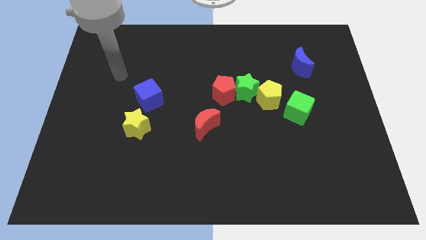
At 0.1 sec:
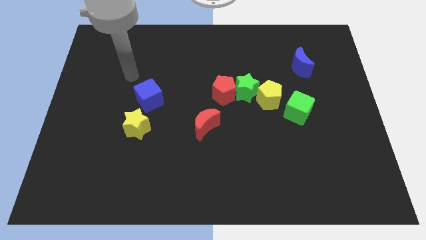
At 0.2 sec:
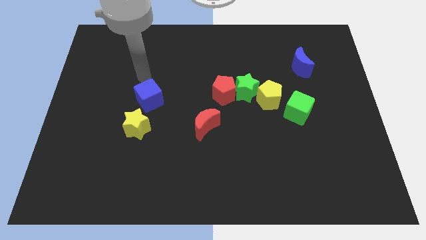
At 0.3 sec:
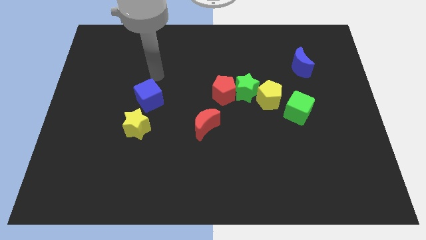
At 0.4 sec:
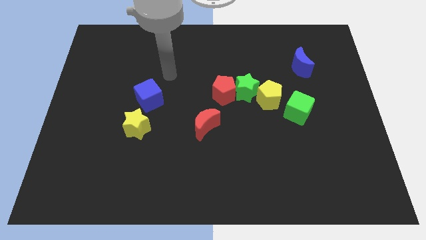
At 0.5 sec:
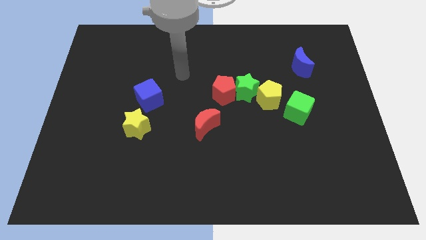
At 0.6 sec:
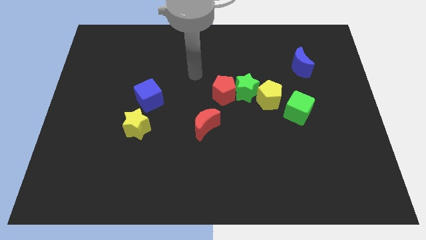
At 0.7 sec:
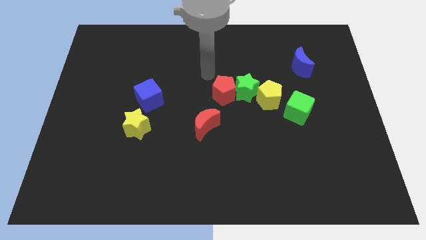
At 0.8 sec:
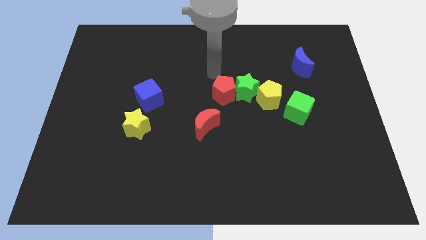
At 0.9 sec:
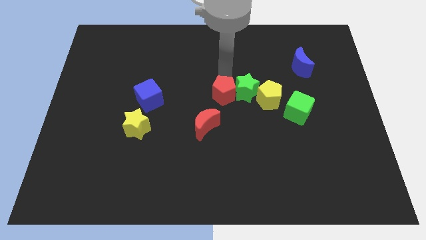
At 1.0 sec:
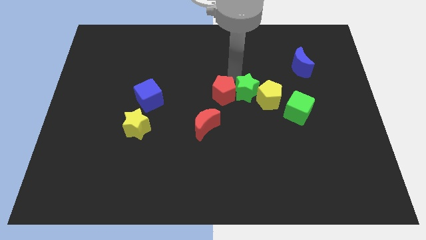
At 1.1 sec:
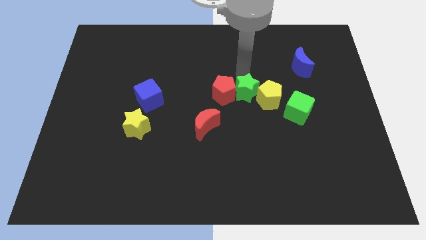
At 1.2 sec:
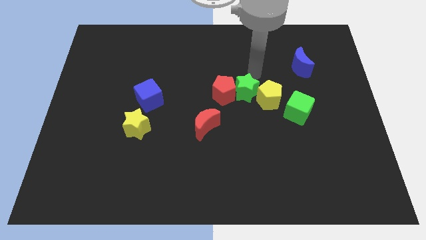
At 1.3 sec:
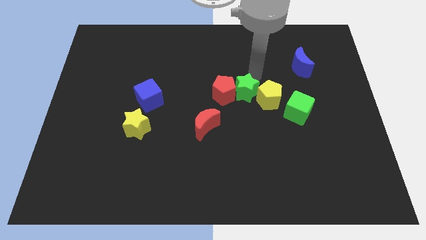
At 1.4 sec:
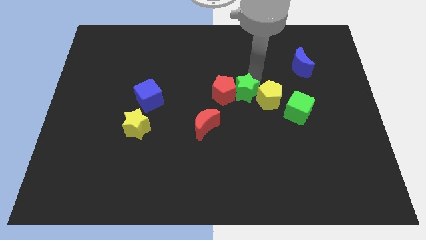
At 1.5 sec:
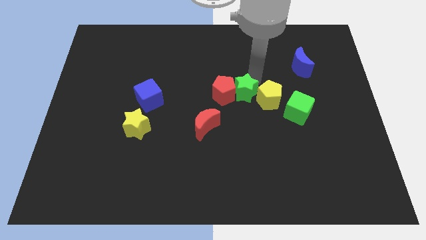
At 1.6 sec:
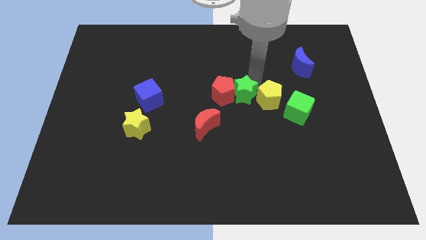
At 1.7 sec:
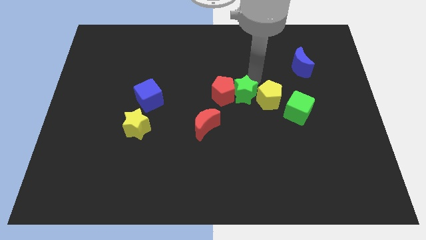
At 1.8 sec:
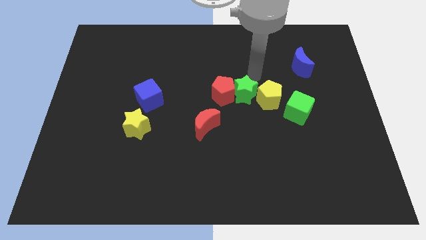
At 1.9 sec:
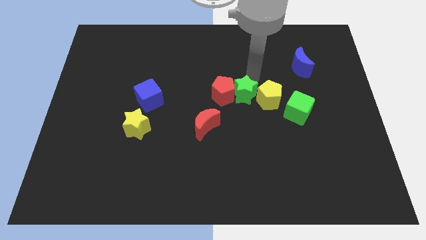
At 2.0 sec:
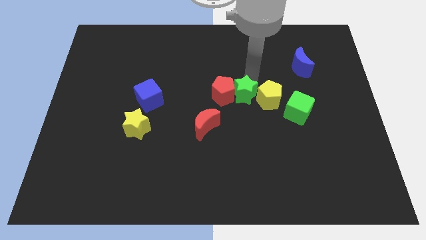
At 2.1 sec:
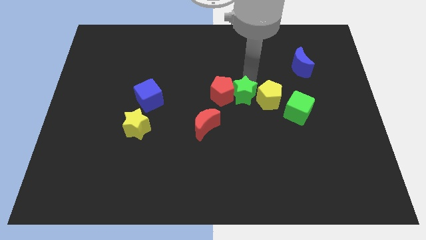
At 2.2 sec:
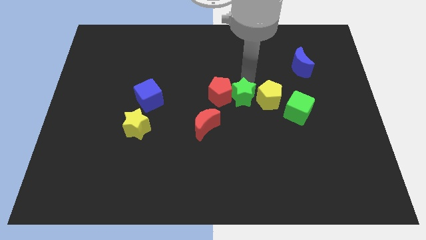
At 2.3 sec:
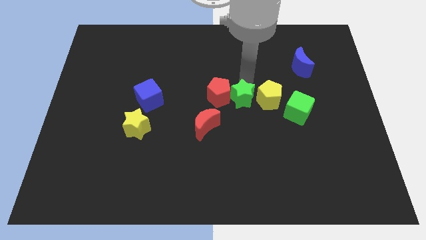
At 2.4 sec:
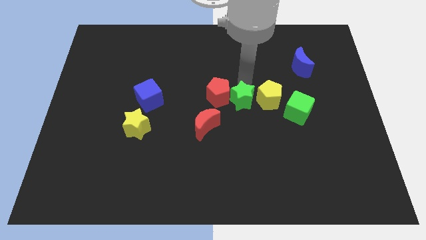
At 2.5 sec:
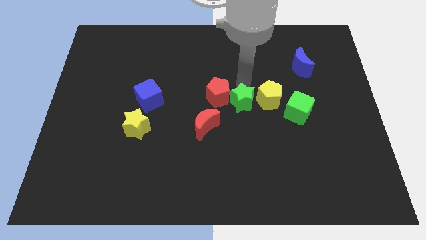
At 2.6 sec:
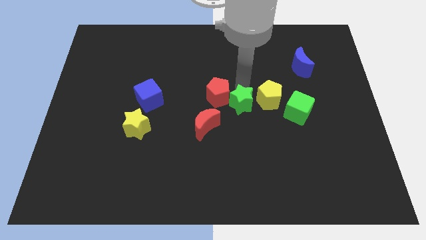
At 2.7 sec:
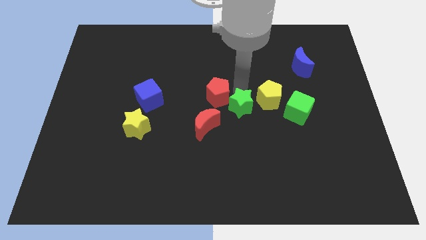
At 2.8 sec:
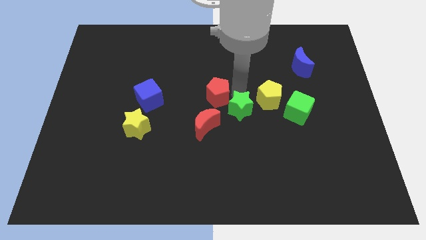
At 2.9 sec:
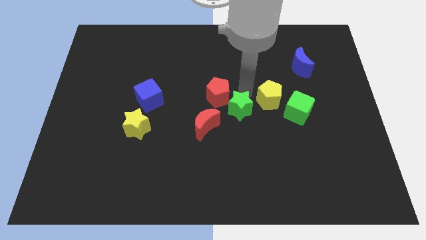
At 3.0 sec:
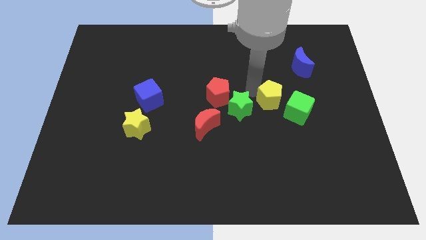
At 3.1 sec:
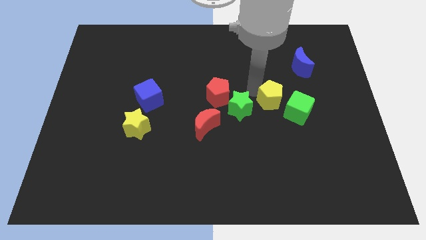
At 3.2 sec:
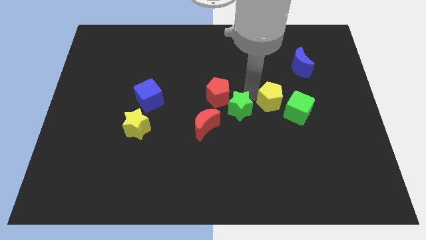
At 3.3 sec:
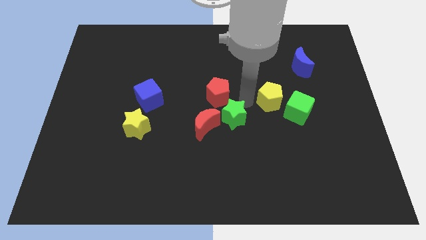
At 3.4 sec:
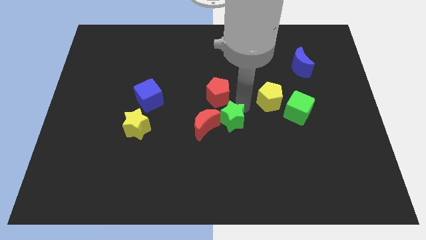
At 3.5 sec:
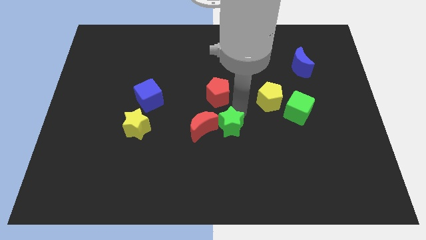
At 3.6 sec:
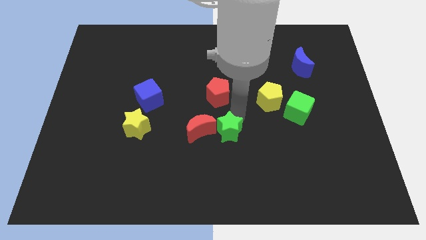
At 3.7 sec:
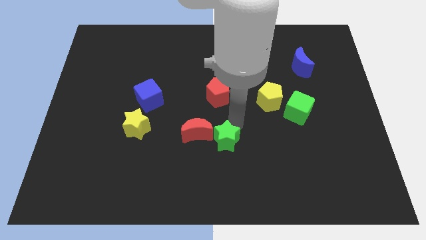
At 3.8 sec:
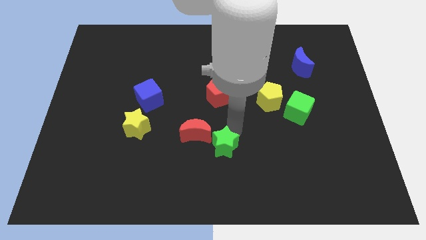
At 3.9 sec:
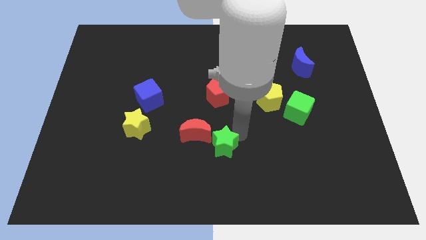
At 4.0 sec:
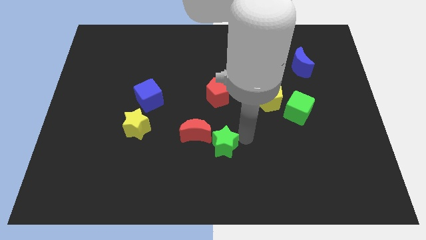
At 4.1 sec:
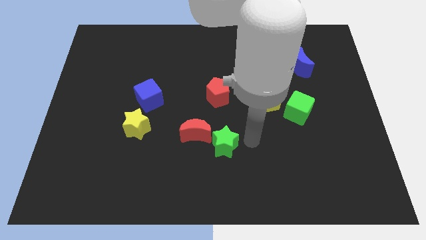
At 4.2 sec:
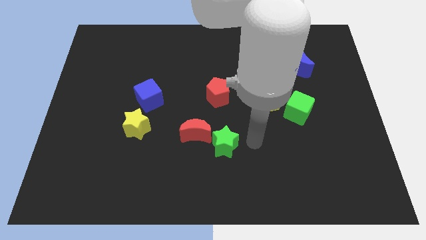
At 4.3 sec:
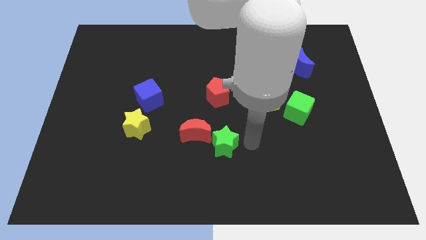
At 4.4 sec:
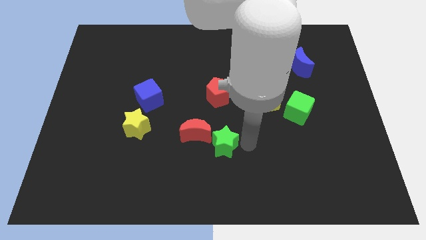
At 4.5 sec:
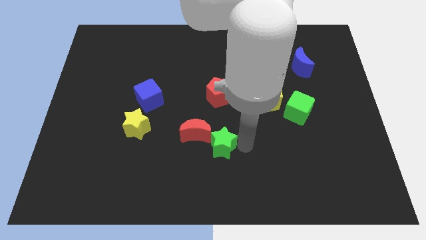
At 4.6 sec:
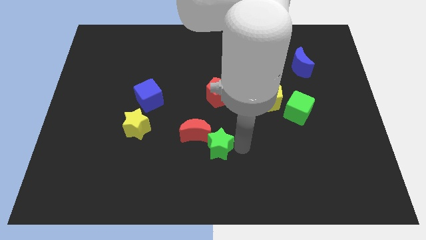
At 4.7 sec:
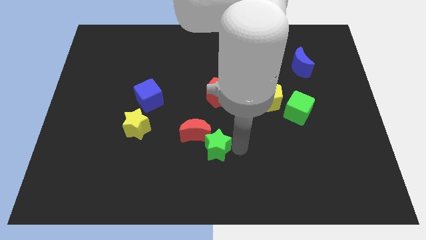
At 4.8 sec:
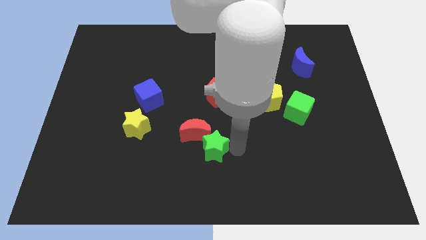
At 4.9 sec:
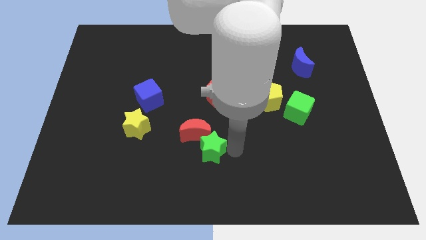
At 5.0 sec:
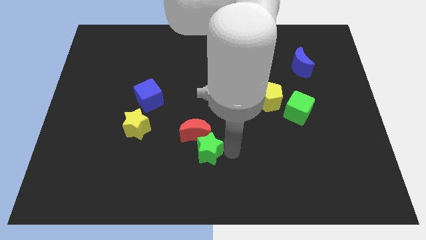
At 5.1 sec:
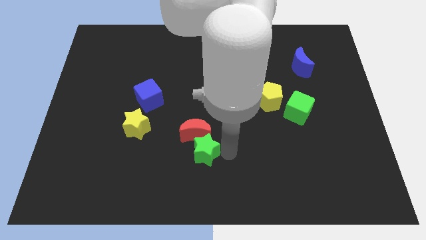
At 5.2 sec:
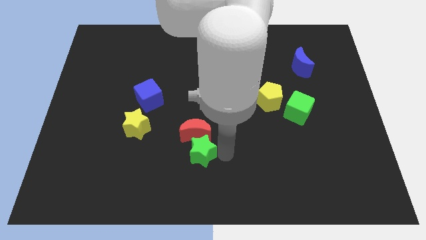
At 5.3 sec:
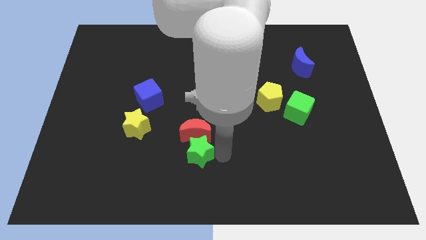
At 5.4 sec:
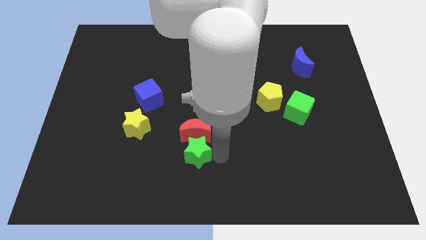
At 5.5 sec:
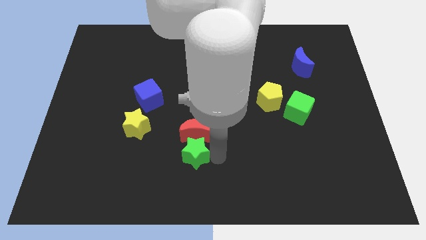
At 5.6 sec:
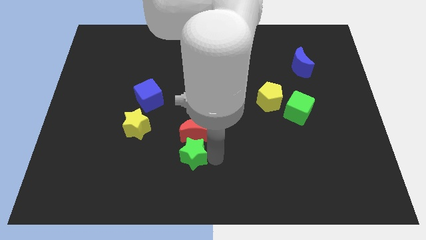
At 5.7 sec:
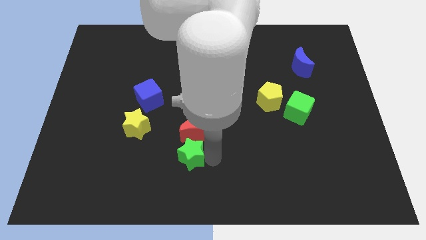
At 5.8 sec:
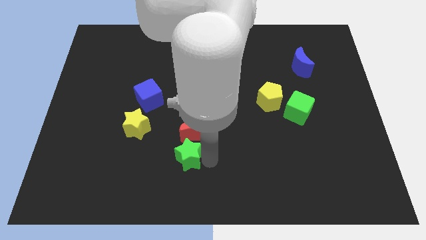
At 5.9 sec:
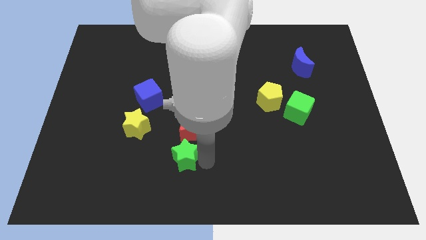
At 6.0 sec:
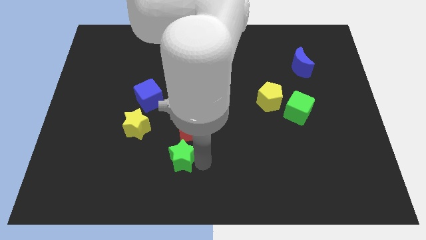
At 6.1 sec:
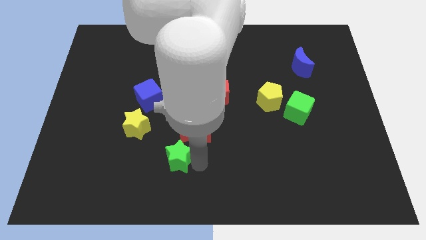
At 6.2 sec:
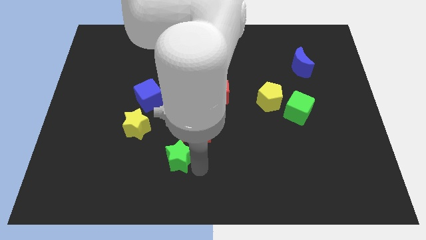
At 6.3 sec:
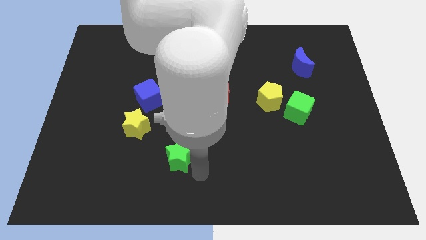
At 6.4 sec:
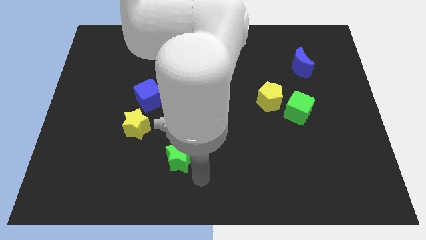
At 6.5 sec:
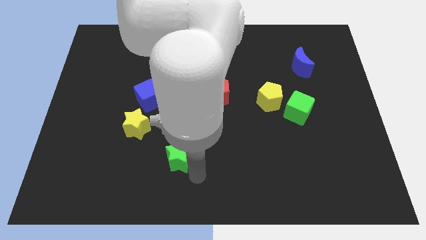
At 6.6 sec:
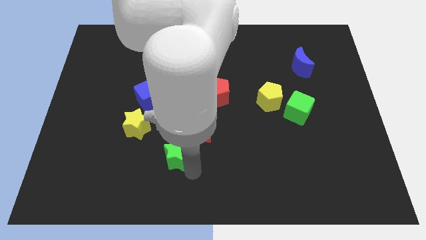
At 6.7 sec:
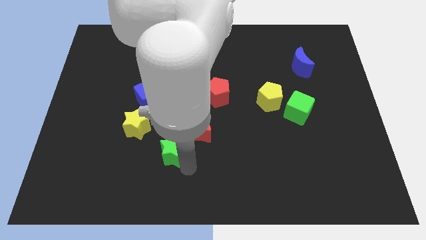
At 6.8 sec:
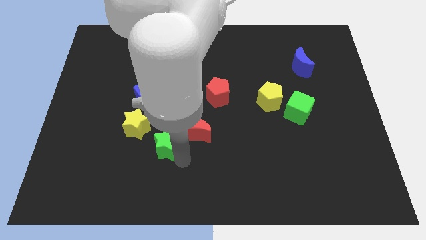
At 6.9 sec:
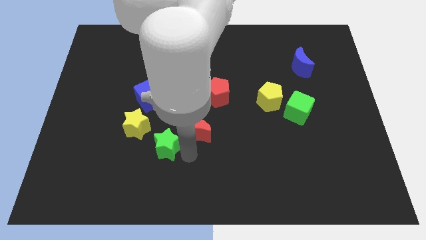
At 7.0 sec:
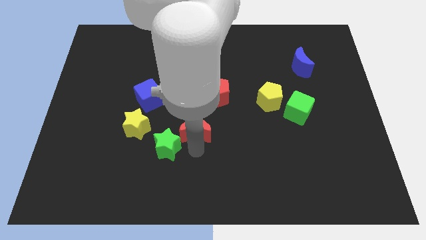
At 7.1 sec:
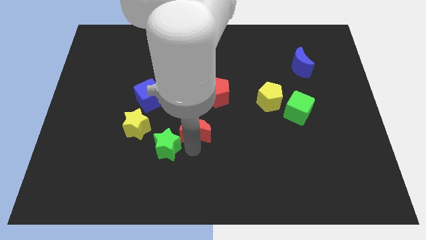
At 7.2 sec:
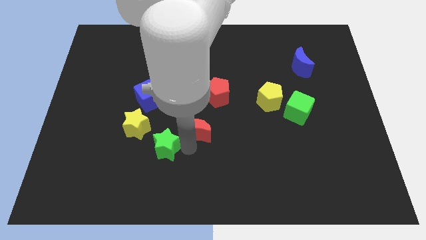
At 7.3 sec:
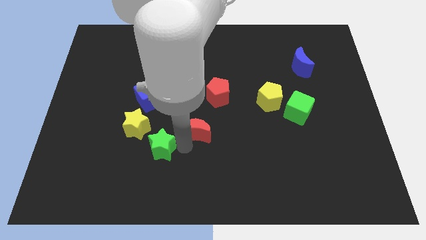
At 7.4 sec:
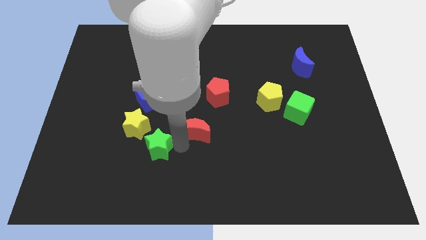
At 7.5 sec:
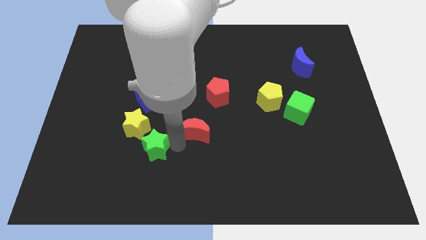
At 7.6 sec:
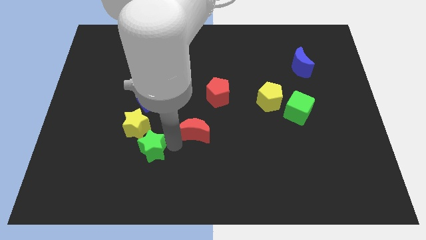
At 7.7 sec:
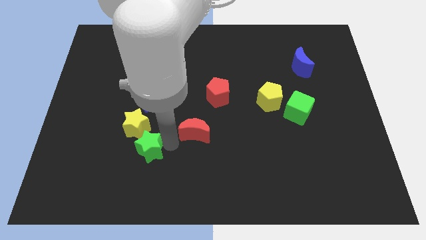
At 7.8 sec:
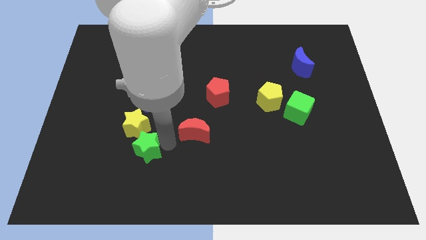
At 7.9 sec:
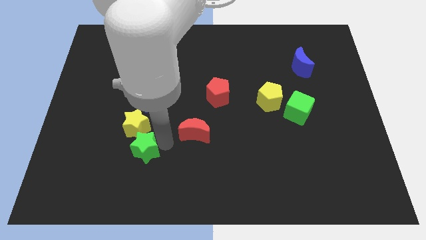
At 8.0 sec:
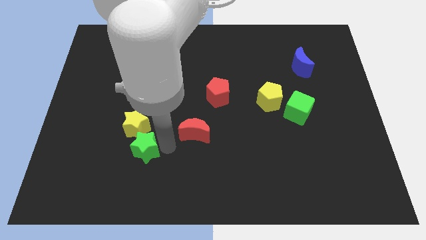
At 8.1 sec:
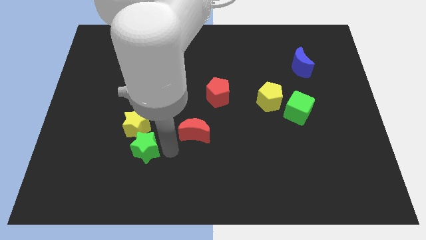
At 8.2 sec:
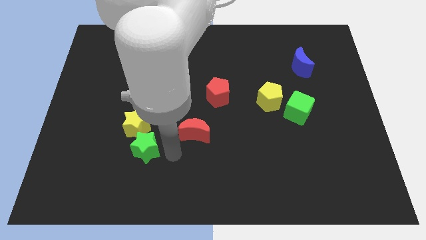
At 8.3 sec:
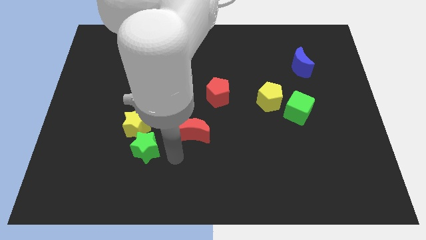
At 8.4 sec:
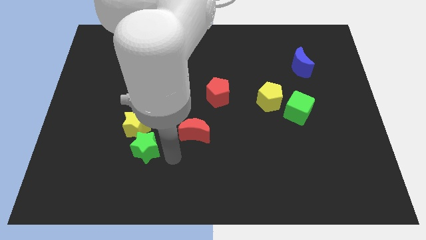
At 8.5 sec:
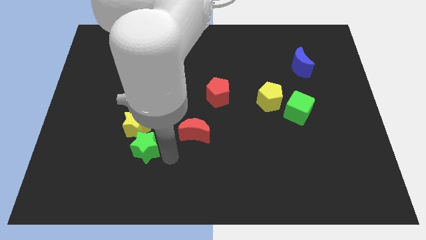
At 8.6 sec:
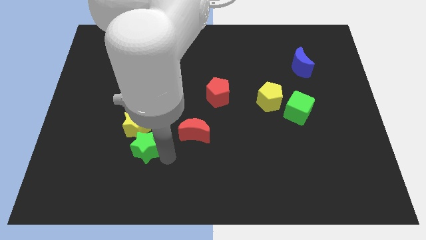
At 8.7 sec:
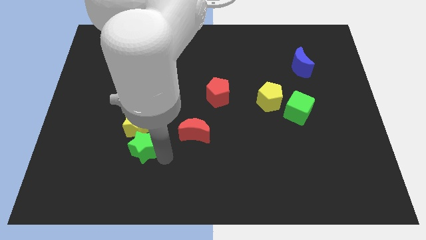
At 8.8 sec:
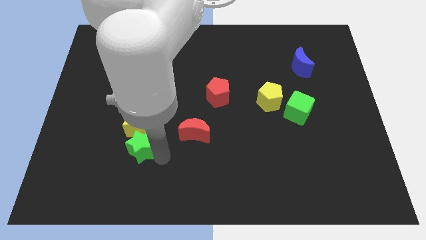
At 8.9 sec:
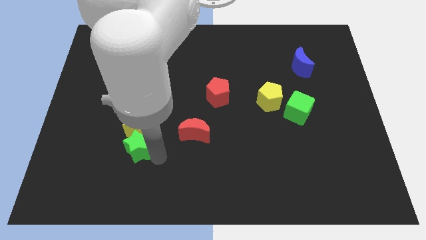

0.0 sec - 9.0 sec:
slide the green star diagonally down and to the left of the yellow star
